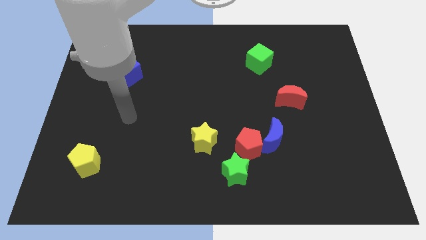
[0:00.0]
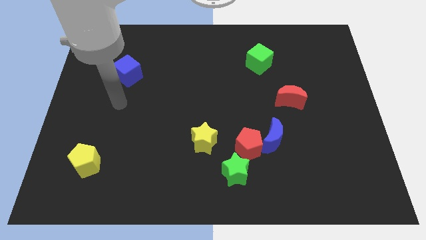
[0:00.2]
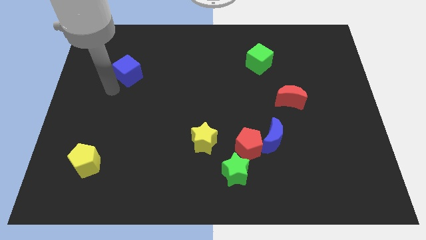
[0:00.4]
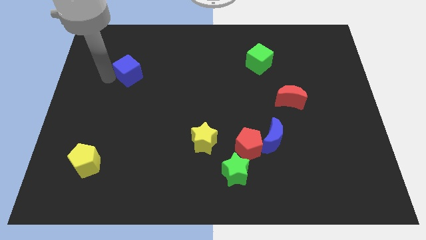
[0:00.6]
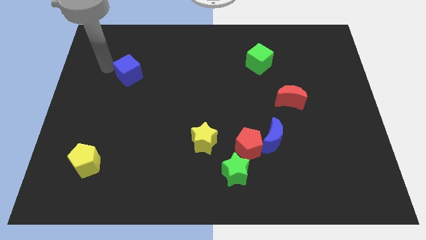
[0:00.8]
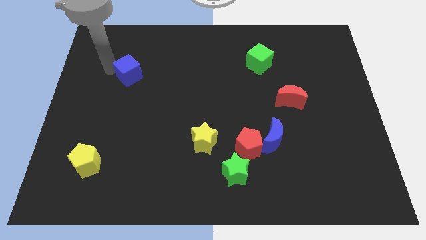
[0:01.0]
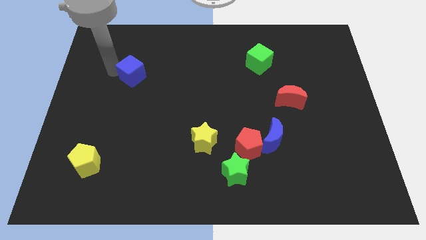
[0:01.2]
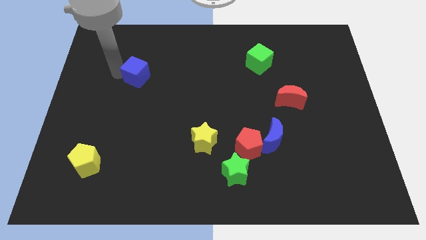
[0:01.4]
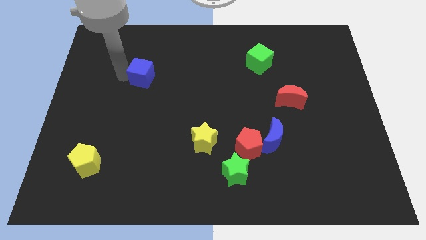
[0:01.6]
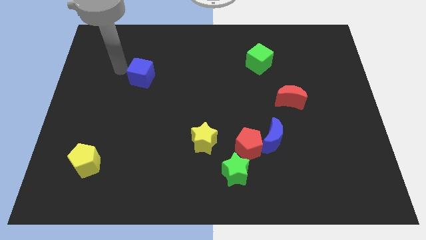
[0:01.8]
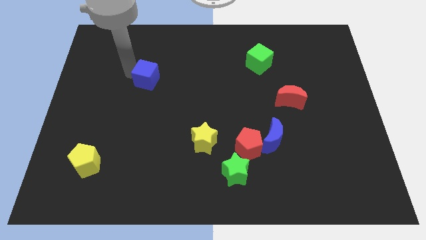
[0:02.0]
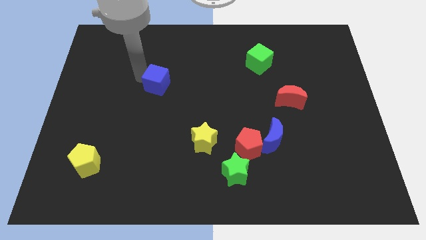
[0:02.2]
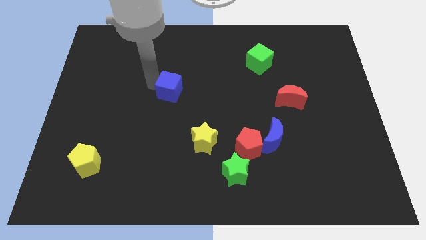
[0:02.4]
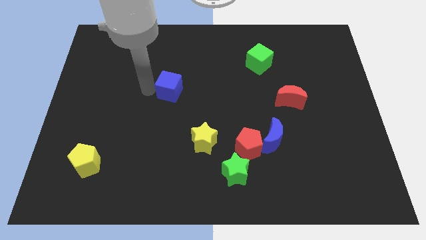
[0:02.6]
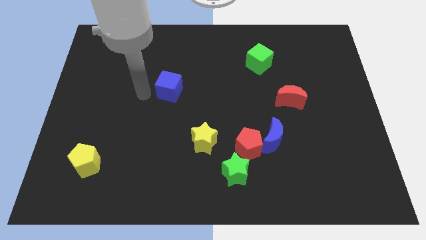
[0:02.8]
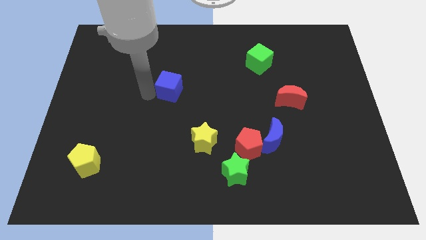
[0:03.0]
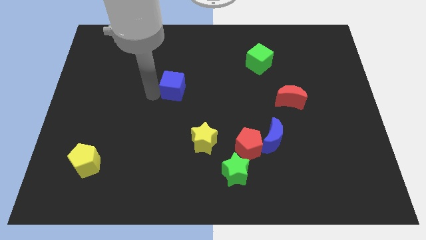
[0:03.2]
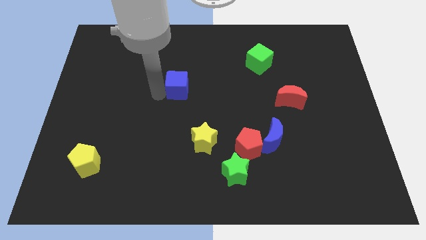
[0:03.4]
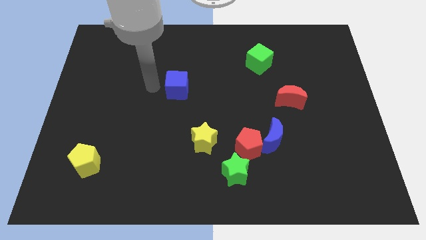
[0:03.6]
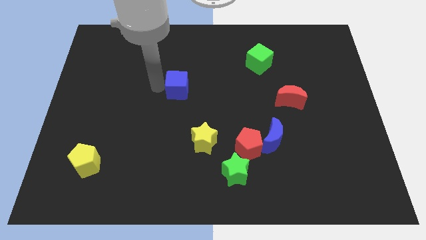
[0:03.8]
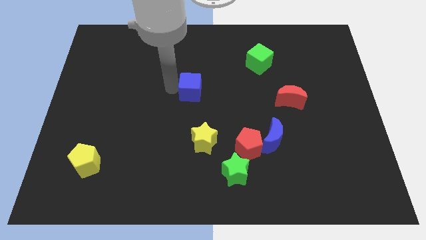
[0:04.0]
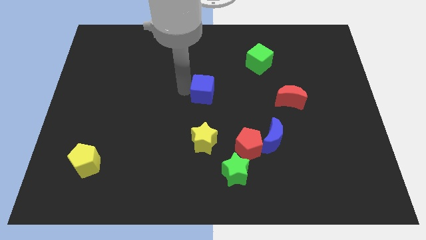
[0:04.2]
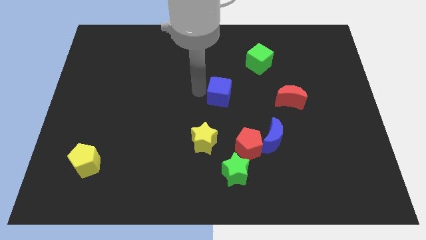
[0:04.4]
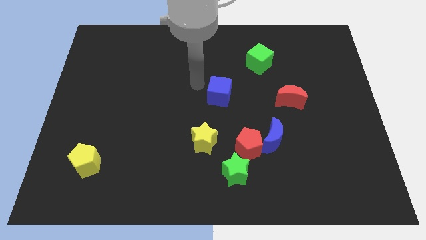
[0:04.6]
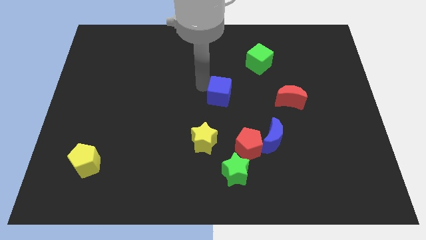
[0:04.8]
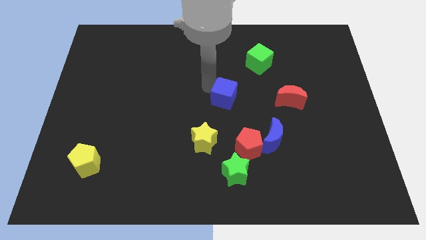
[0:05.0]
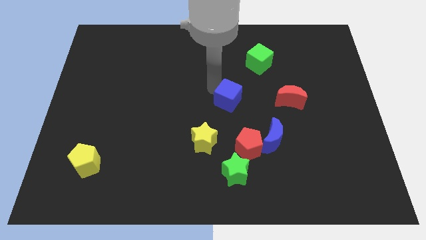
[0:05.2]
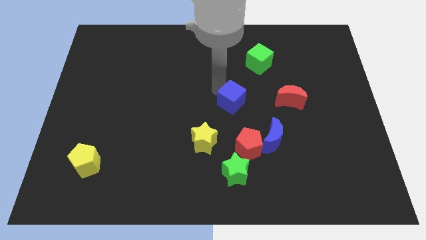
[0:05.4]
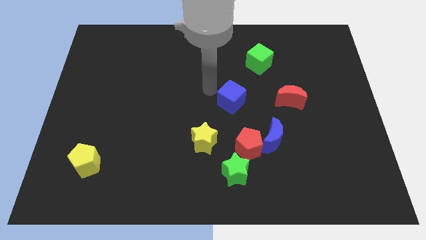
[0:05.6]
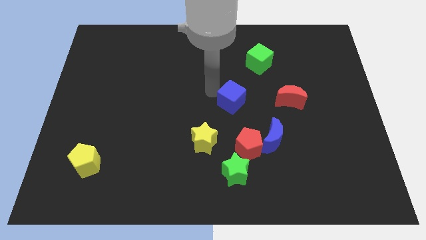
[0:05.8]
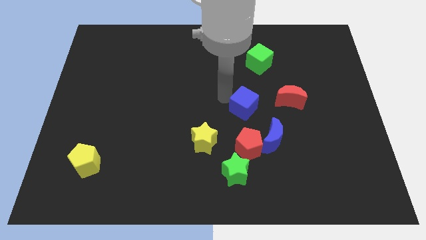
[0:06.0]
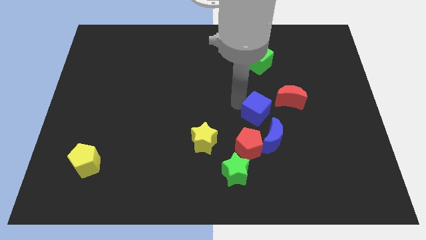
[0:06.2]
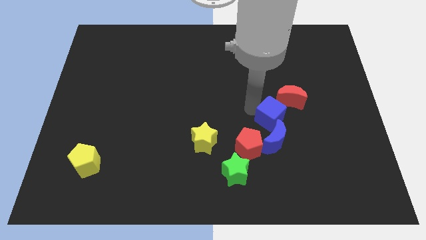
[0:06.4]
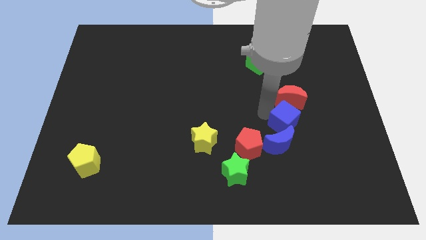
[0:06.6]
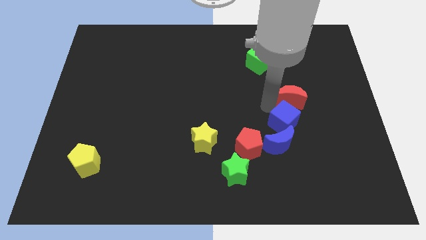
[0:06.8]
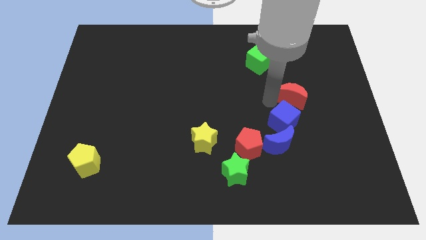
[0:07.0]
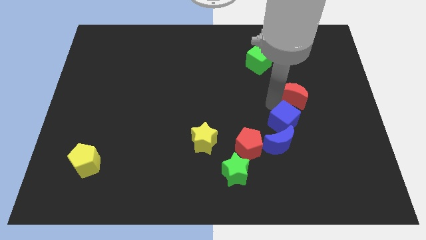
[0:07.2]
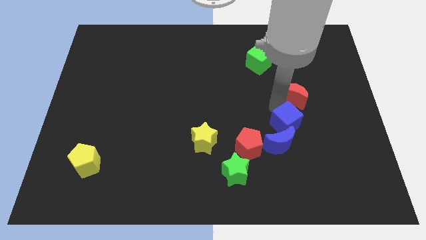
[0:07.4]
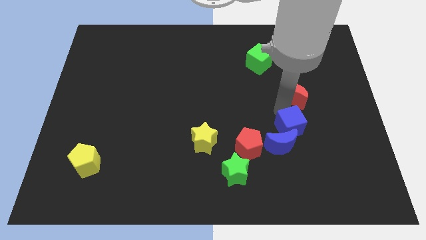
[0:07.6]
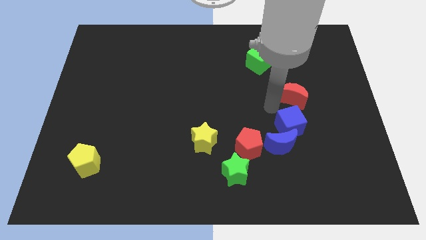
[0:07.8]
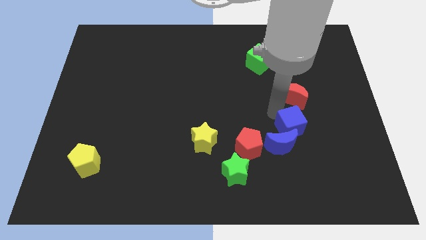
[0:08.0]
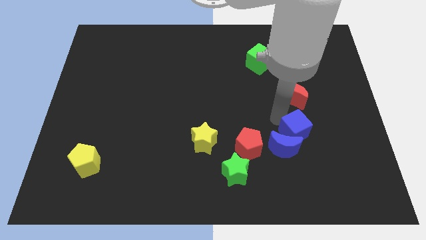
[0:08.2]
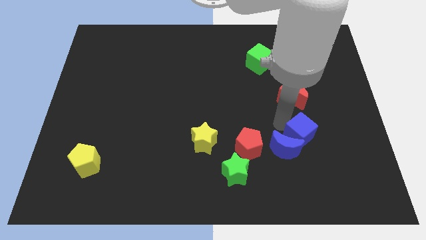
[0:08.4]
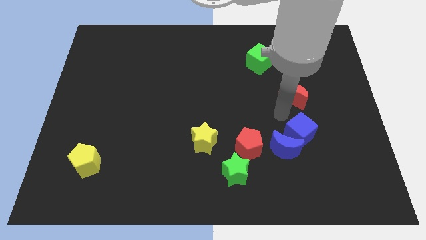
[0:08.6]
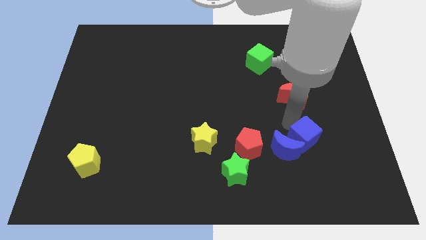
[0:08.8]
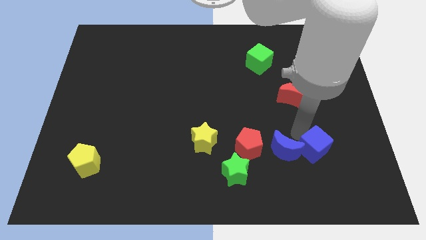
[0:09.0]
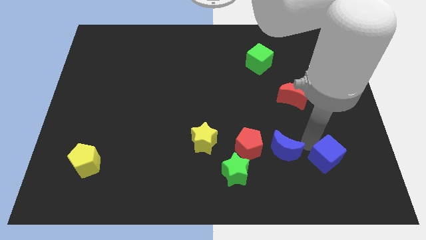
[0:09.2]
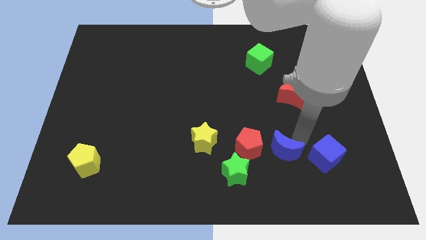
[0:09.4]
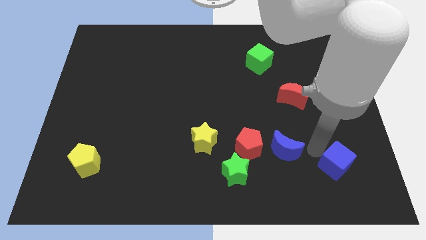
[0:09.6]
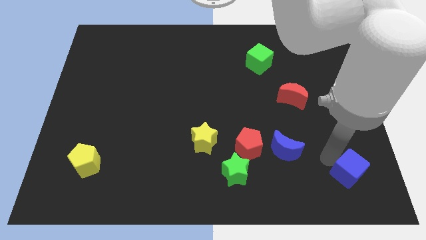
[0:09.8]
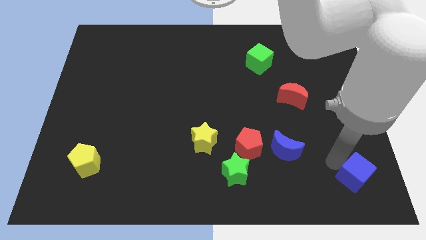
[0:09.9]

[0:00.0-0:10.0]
push the blue cube to the bottom right corner

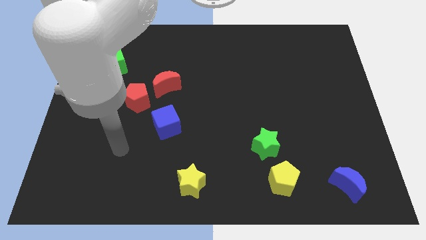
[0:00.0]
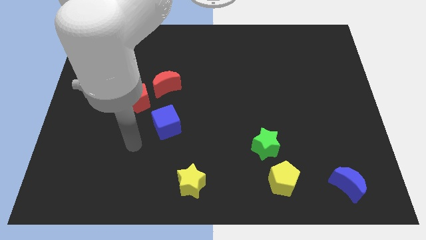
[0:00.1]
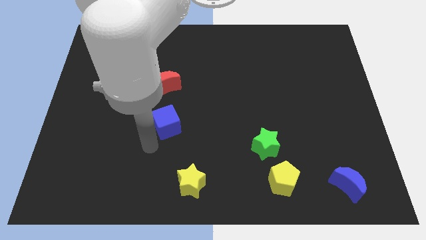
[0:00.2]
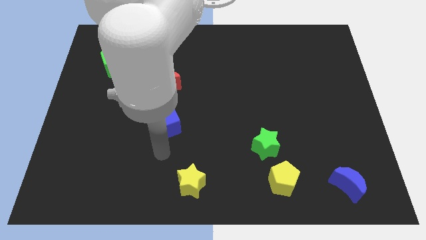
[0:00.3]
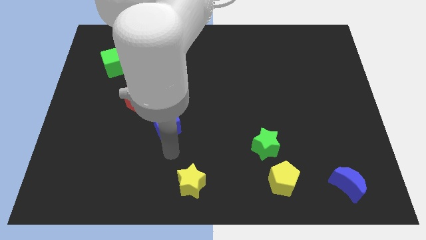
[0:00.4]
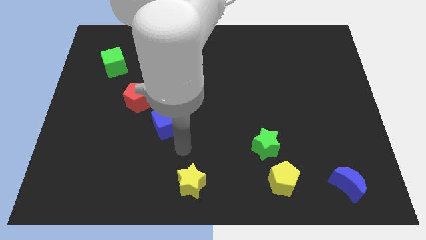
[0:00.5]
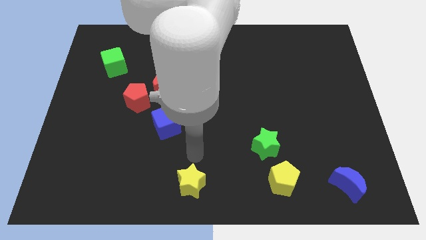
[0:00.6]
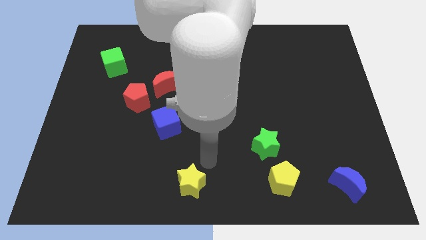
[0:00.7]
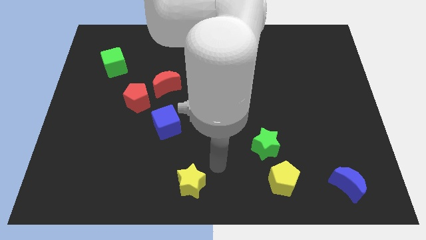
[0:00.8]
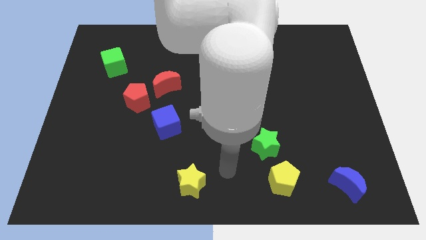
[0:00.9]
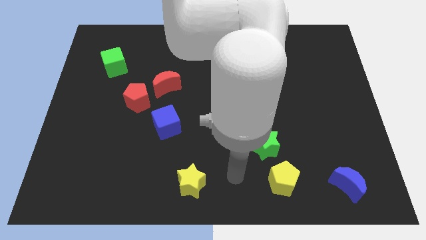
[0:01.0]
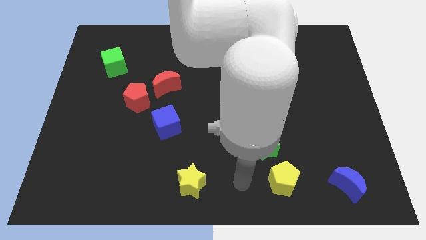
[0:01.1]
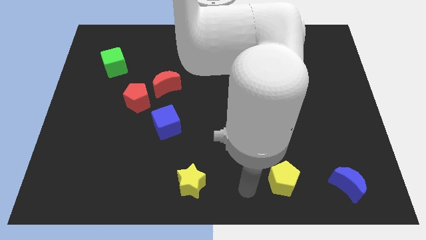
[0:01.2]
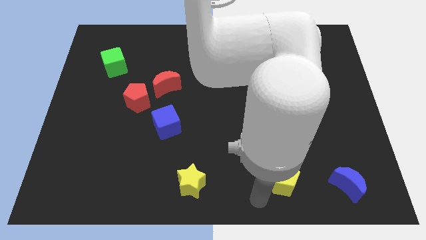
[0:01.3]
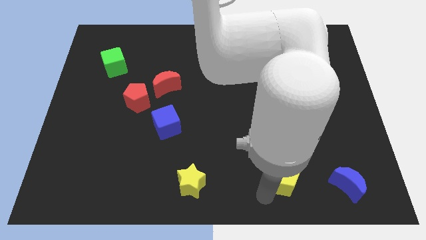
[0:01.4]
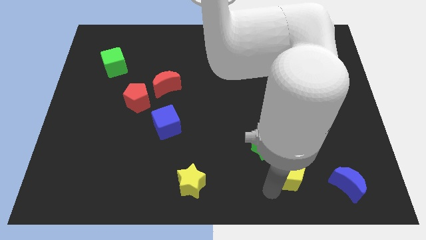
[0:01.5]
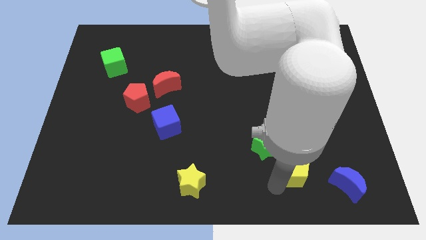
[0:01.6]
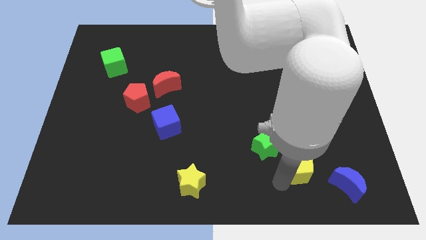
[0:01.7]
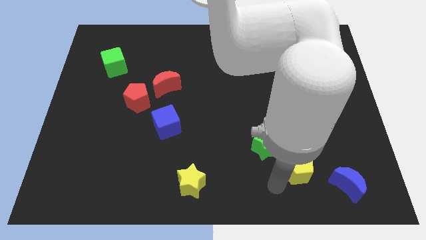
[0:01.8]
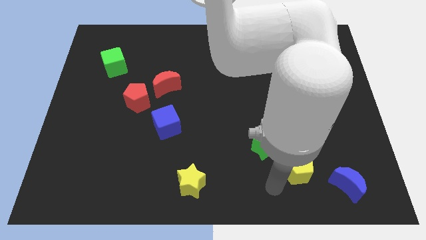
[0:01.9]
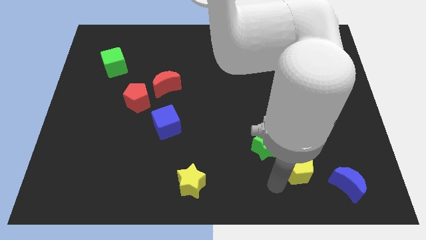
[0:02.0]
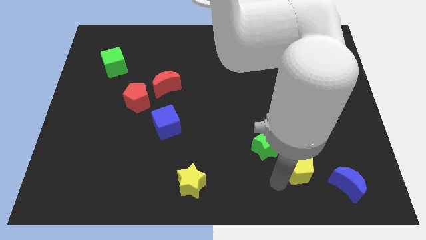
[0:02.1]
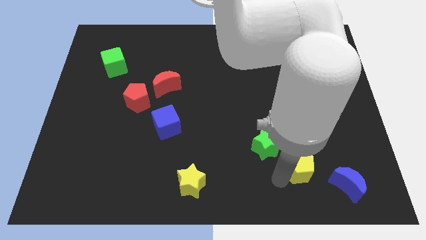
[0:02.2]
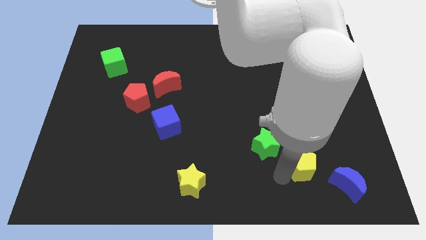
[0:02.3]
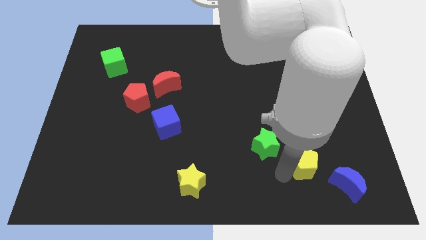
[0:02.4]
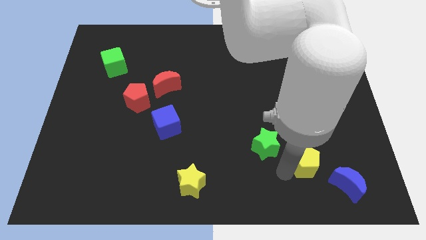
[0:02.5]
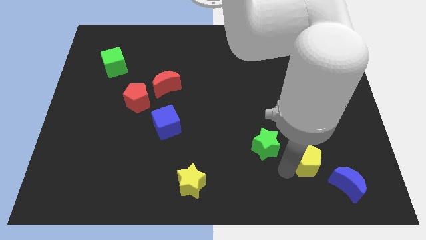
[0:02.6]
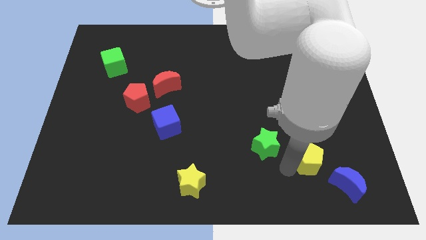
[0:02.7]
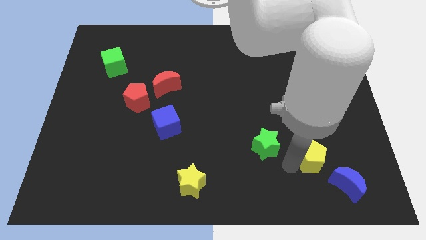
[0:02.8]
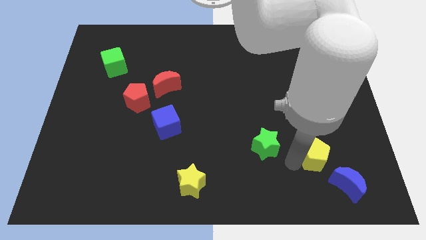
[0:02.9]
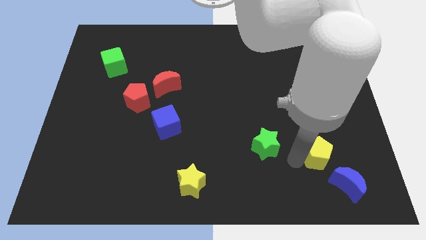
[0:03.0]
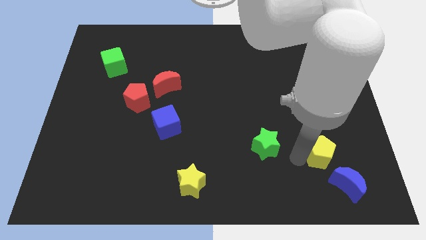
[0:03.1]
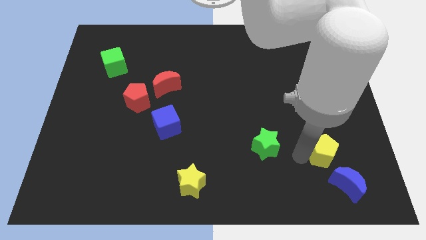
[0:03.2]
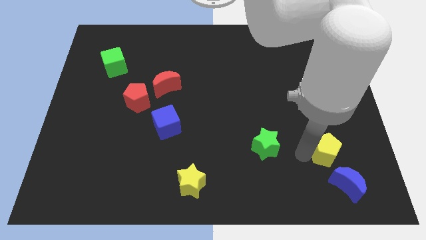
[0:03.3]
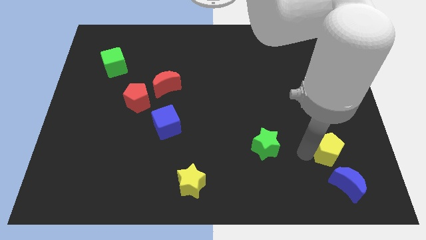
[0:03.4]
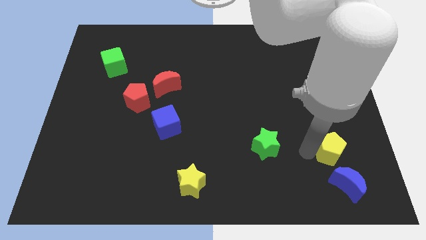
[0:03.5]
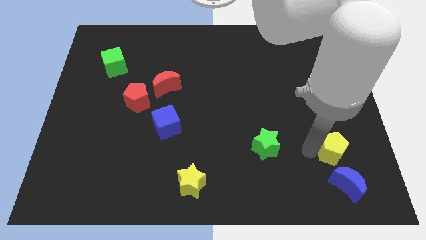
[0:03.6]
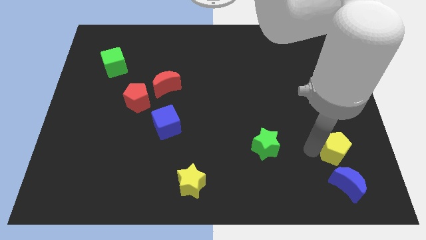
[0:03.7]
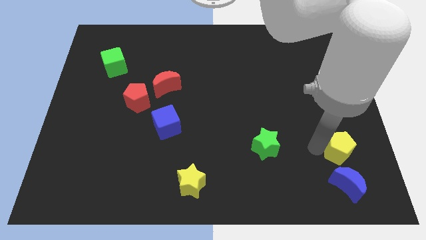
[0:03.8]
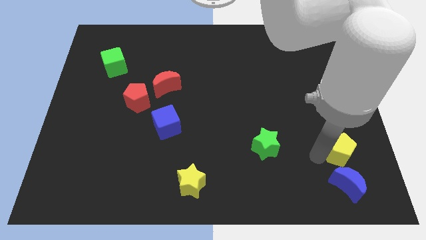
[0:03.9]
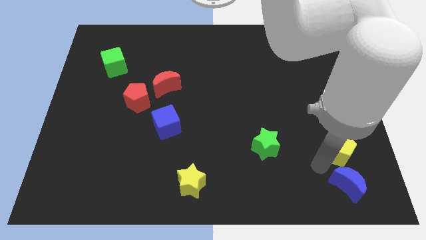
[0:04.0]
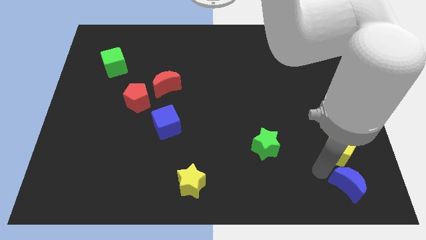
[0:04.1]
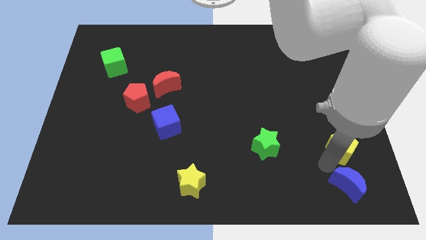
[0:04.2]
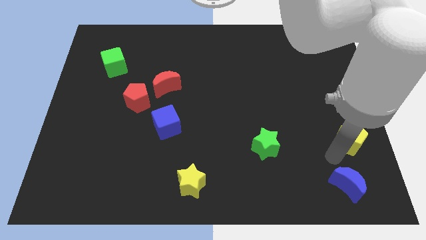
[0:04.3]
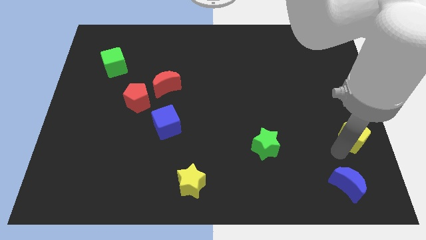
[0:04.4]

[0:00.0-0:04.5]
slide the yellow pentagon to the right side of the board
